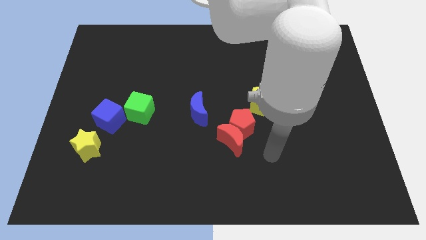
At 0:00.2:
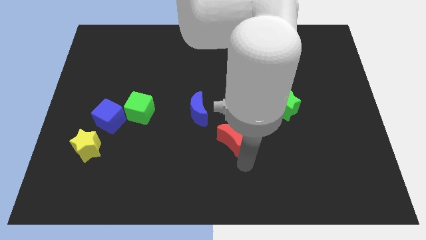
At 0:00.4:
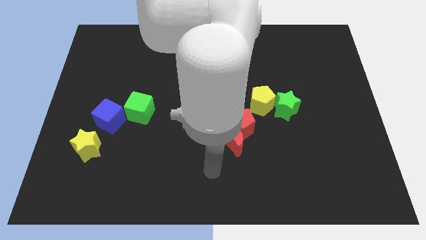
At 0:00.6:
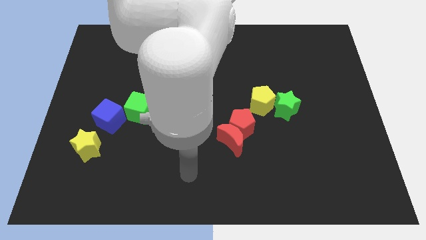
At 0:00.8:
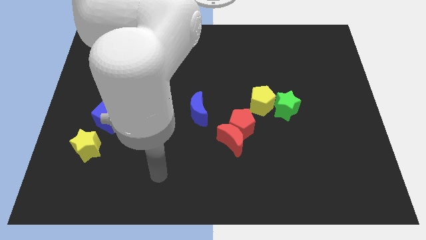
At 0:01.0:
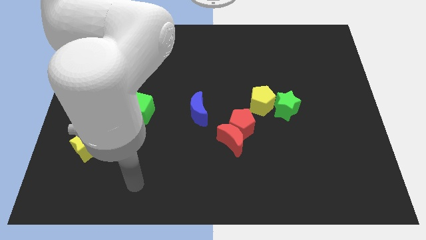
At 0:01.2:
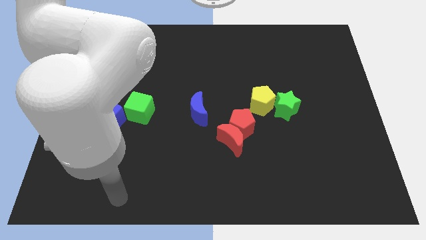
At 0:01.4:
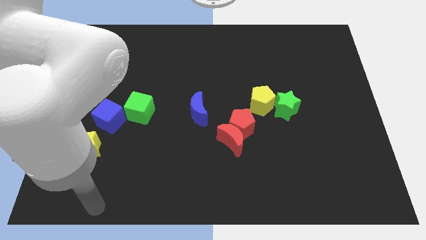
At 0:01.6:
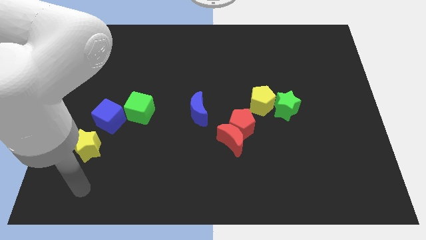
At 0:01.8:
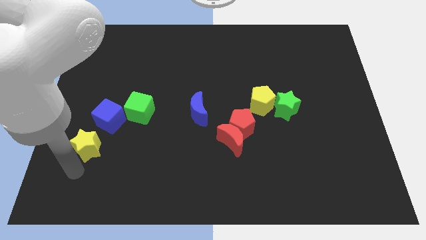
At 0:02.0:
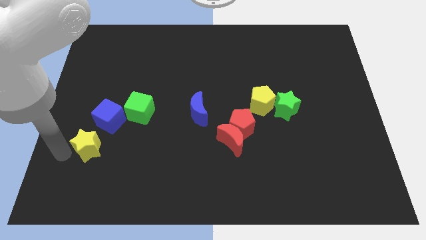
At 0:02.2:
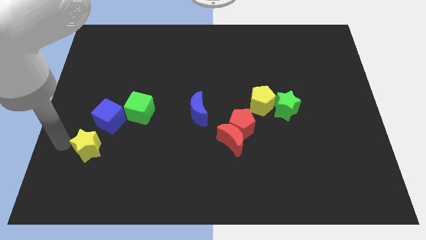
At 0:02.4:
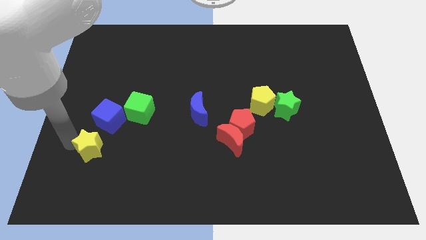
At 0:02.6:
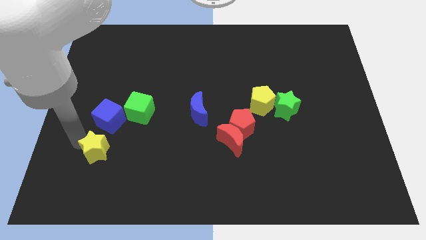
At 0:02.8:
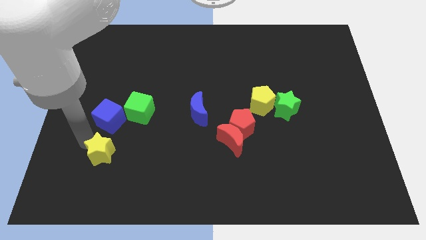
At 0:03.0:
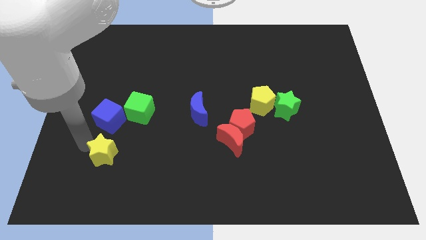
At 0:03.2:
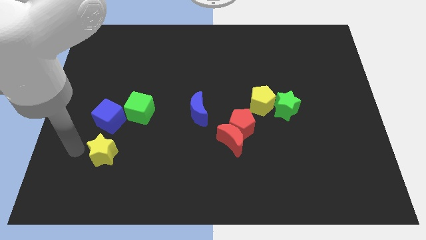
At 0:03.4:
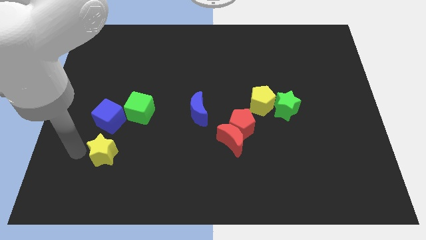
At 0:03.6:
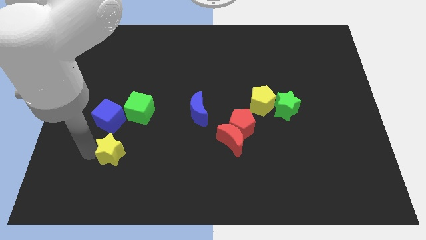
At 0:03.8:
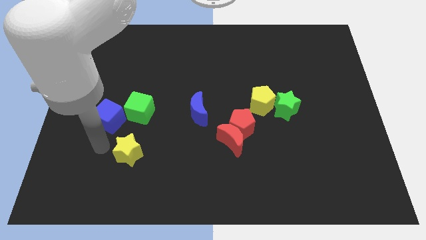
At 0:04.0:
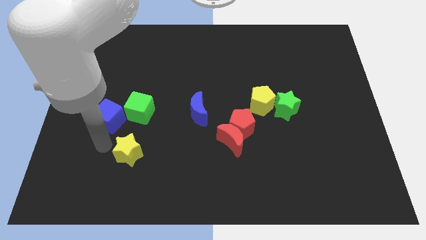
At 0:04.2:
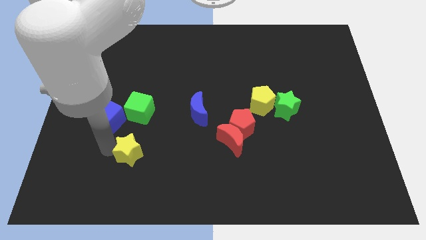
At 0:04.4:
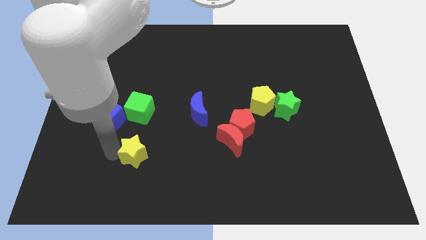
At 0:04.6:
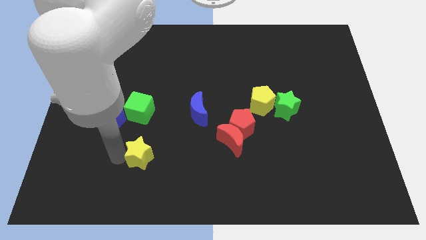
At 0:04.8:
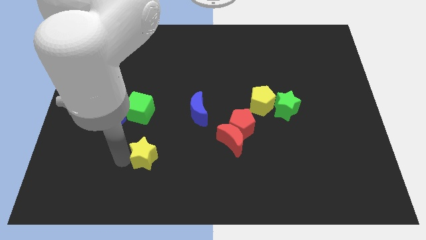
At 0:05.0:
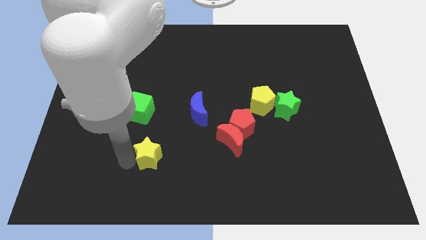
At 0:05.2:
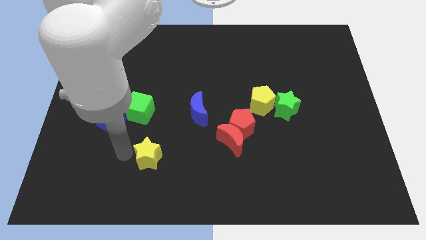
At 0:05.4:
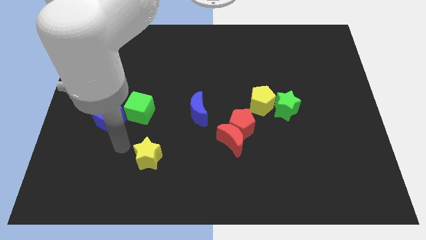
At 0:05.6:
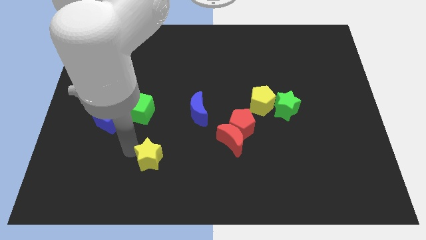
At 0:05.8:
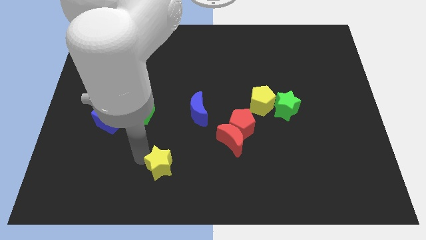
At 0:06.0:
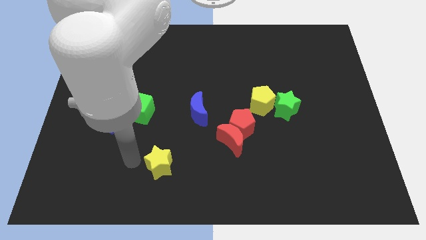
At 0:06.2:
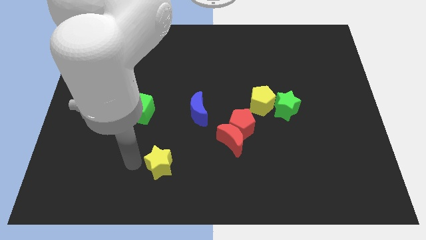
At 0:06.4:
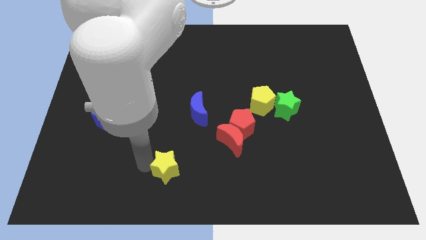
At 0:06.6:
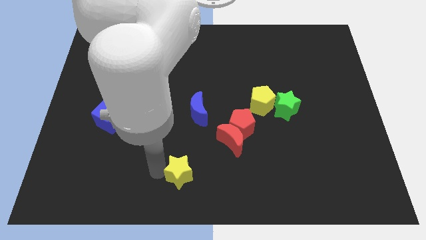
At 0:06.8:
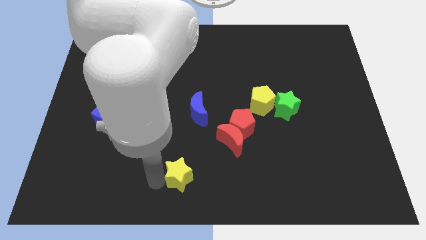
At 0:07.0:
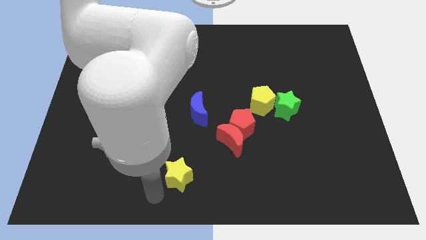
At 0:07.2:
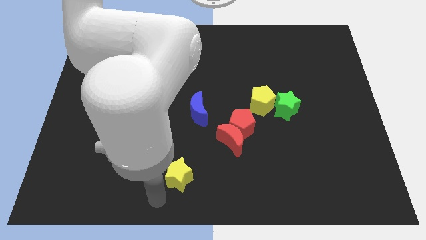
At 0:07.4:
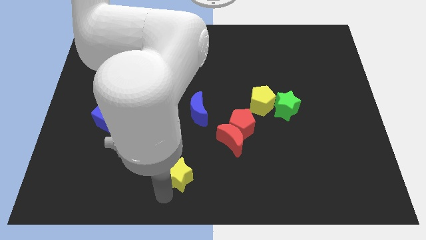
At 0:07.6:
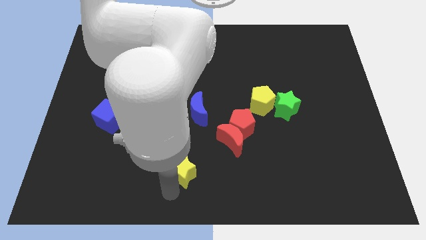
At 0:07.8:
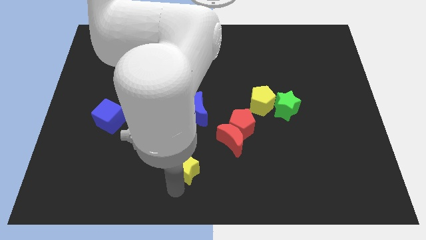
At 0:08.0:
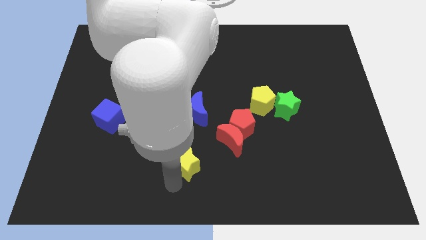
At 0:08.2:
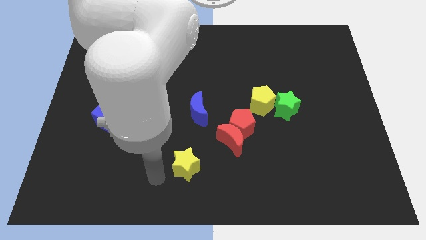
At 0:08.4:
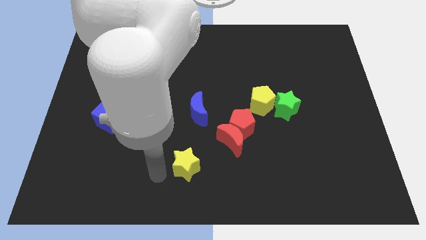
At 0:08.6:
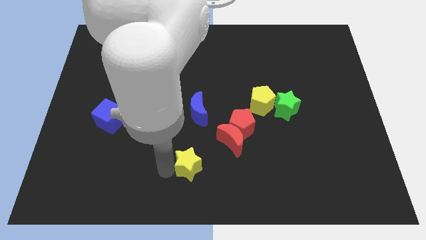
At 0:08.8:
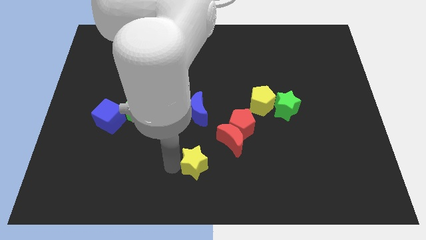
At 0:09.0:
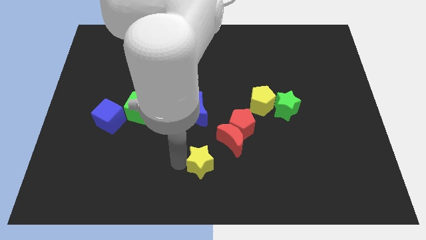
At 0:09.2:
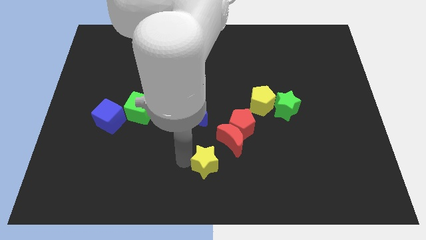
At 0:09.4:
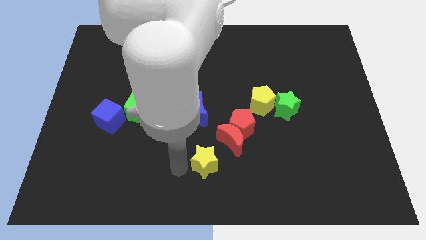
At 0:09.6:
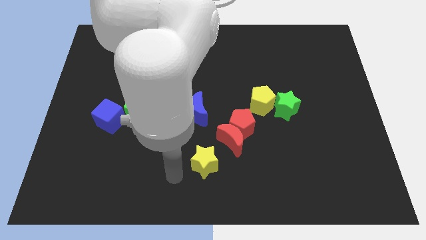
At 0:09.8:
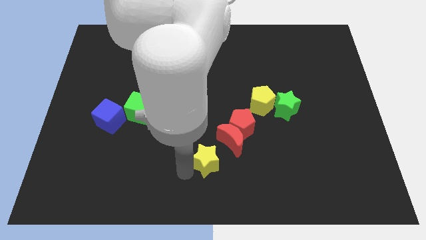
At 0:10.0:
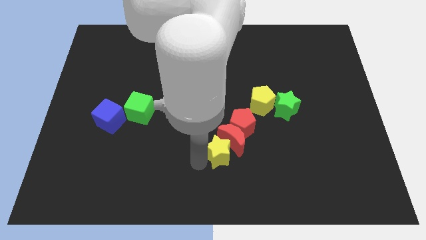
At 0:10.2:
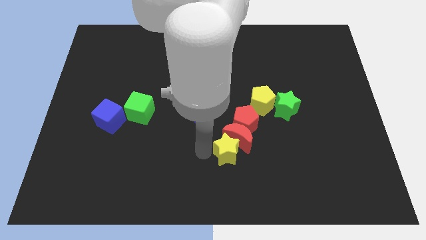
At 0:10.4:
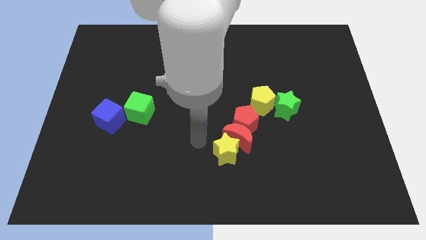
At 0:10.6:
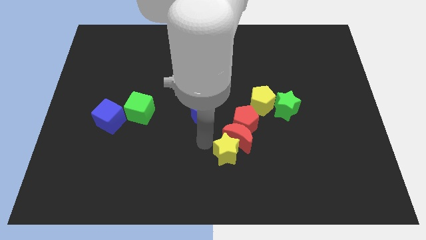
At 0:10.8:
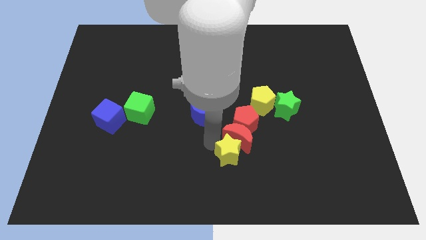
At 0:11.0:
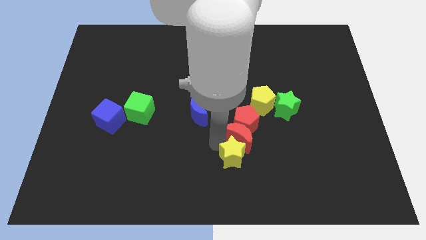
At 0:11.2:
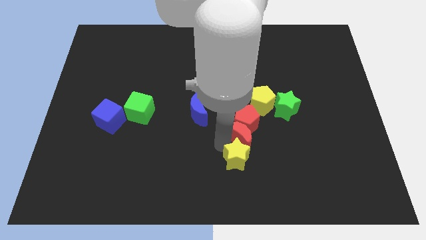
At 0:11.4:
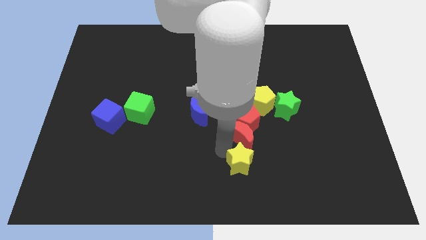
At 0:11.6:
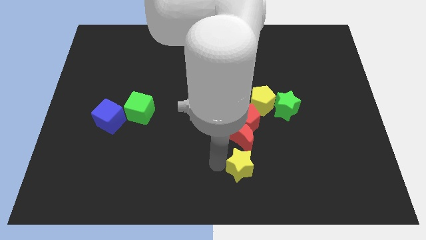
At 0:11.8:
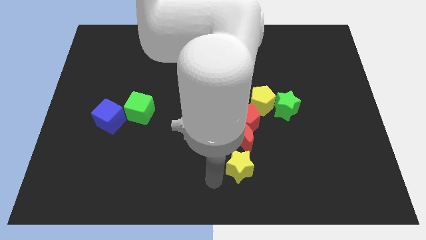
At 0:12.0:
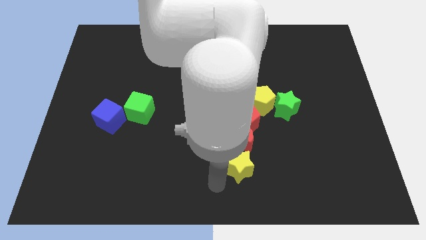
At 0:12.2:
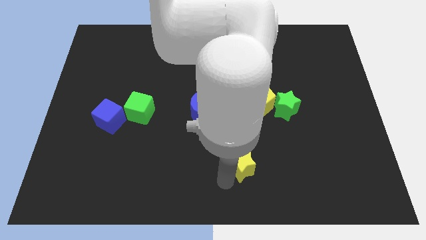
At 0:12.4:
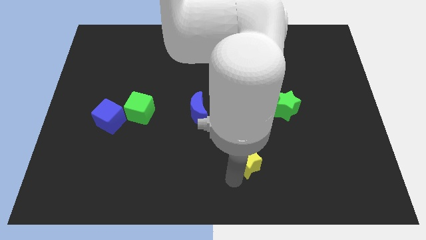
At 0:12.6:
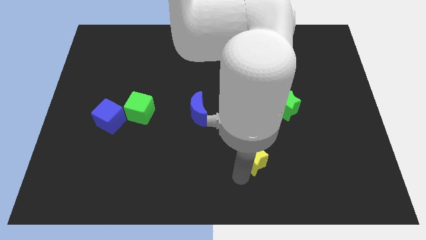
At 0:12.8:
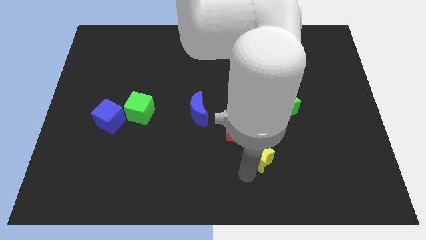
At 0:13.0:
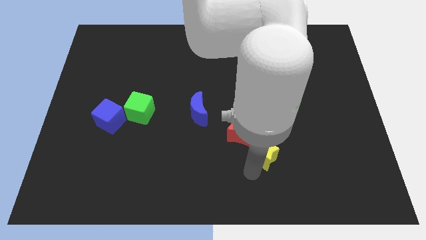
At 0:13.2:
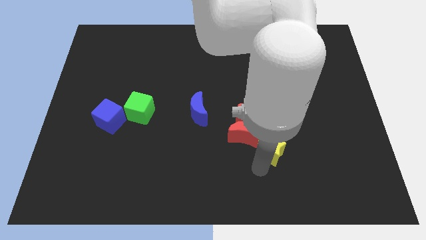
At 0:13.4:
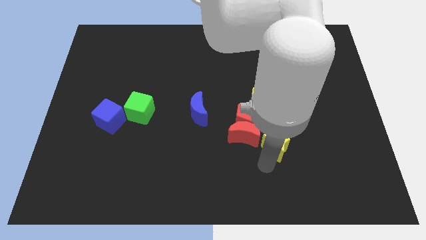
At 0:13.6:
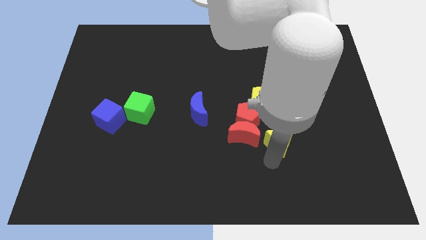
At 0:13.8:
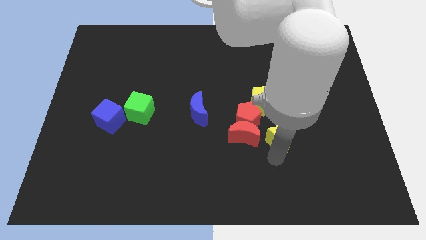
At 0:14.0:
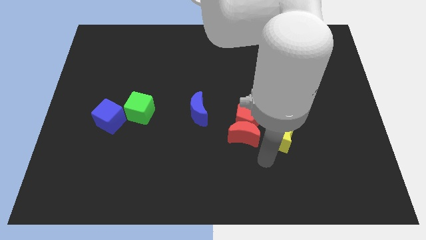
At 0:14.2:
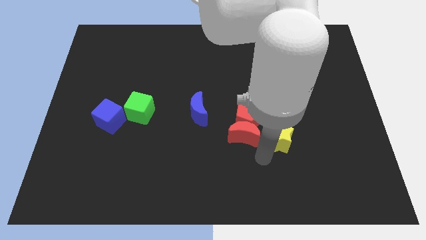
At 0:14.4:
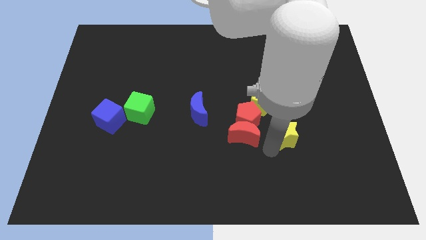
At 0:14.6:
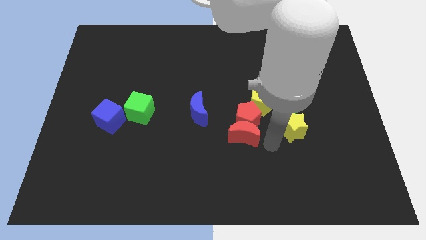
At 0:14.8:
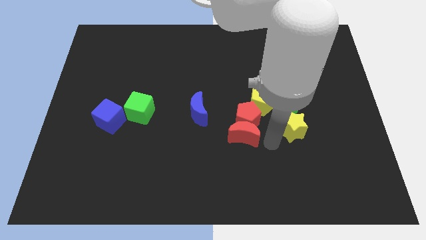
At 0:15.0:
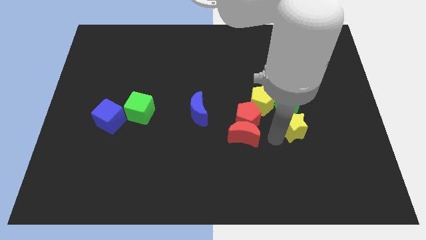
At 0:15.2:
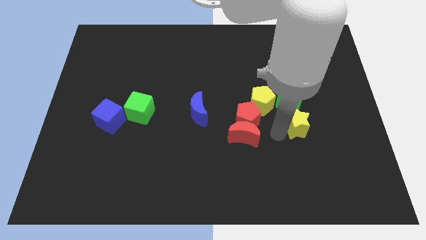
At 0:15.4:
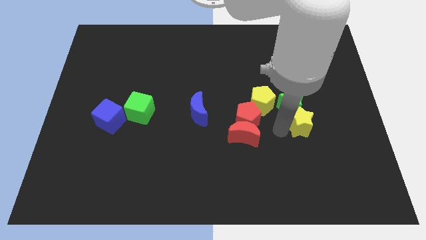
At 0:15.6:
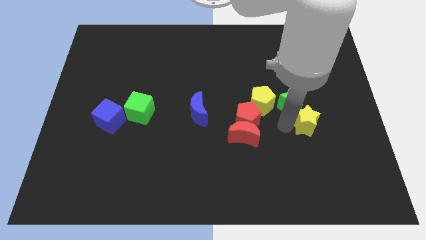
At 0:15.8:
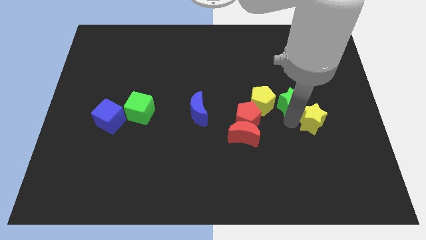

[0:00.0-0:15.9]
push the yellow star to the right side of the green star
